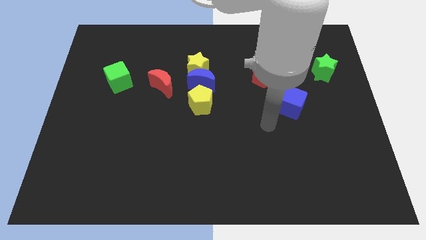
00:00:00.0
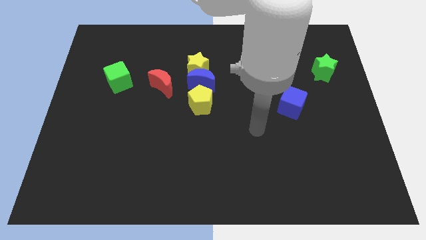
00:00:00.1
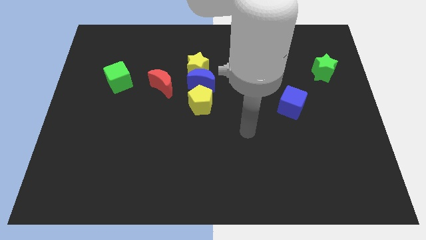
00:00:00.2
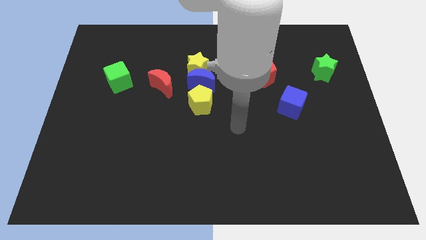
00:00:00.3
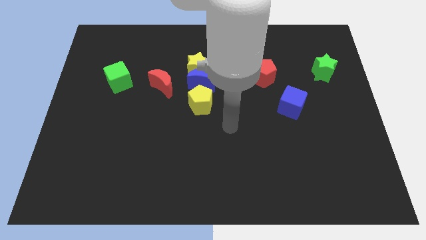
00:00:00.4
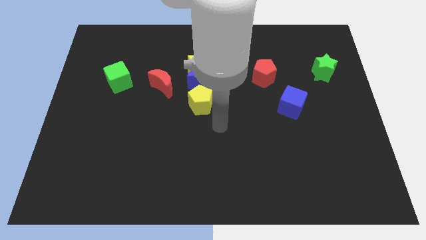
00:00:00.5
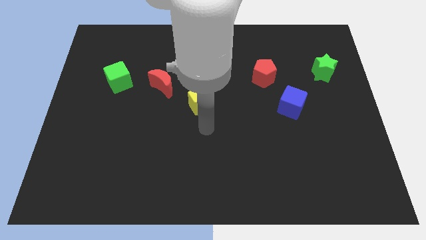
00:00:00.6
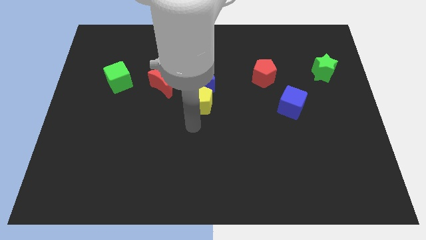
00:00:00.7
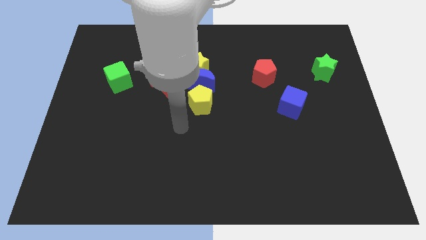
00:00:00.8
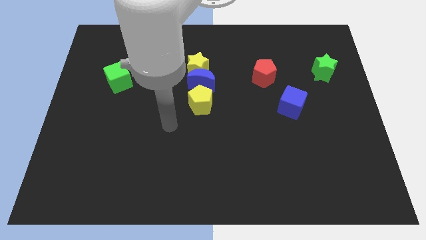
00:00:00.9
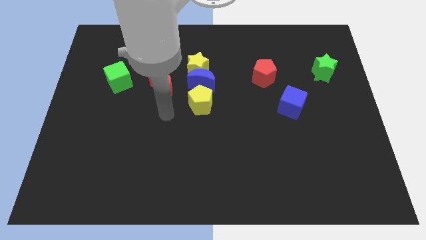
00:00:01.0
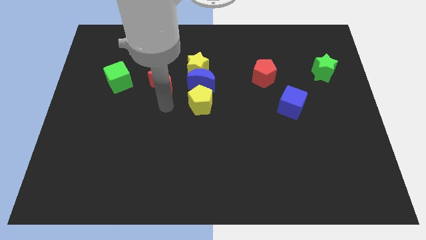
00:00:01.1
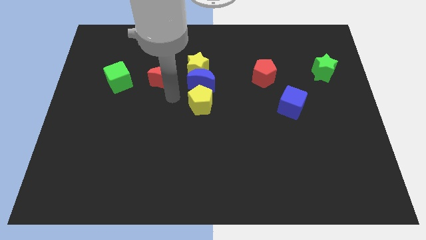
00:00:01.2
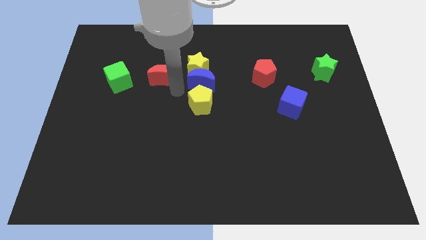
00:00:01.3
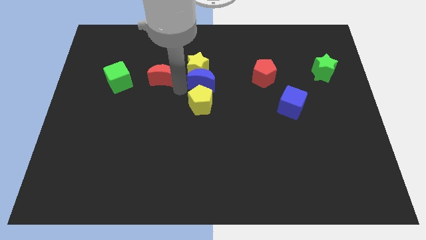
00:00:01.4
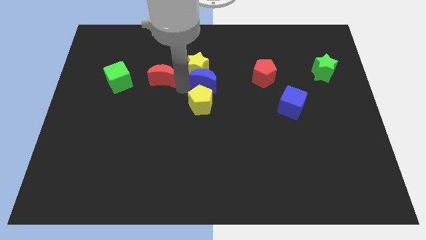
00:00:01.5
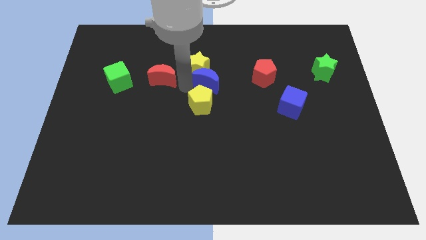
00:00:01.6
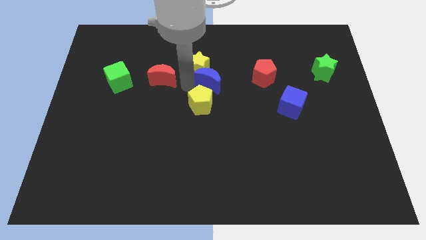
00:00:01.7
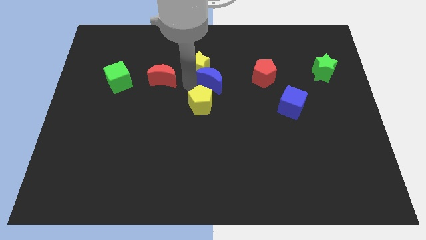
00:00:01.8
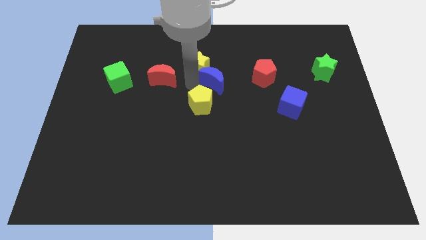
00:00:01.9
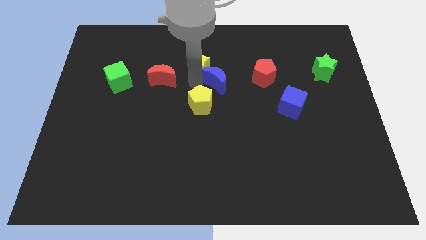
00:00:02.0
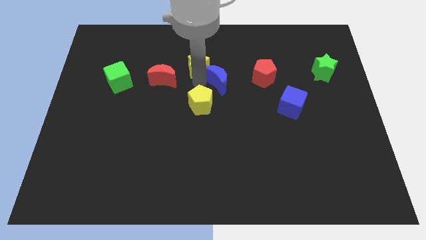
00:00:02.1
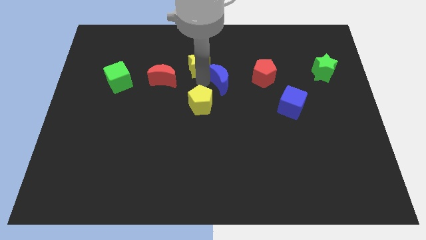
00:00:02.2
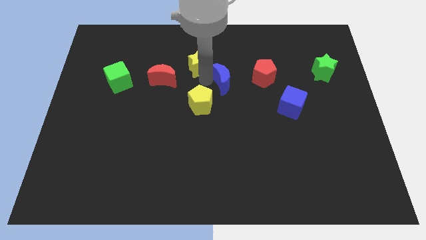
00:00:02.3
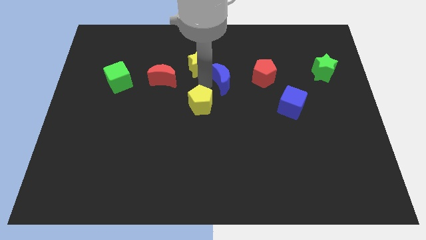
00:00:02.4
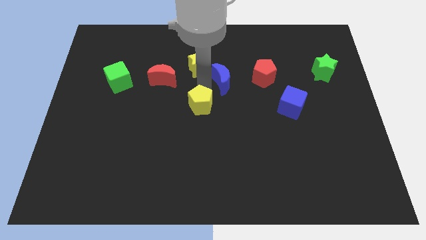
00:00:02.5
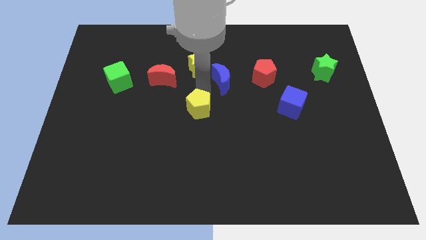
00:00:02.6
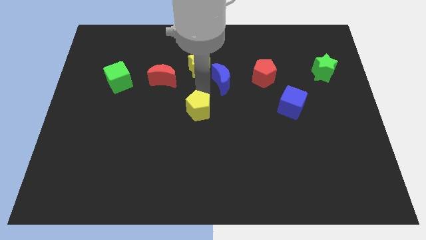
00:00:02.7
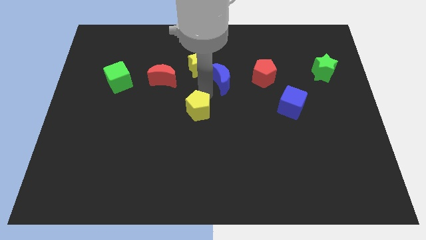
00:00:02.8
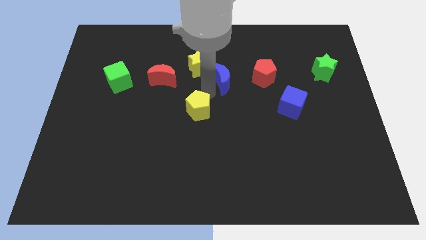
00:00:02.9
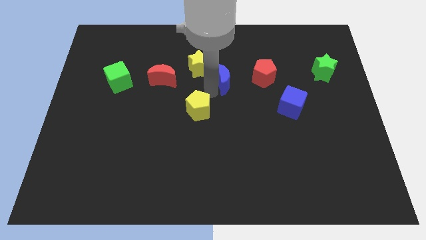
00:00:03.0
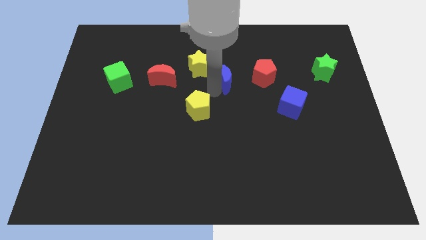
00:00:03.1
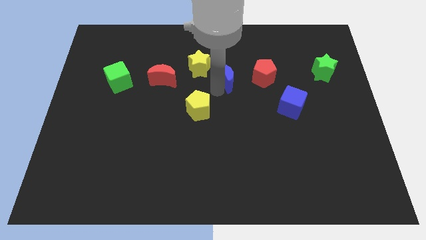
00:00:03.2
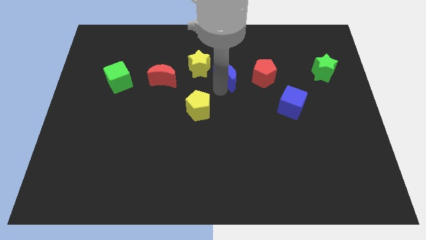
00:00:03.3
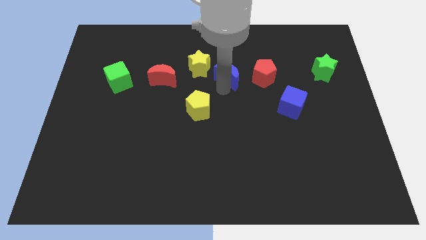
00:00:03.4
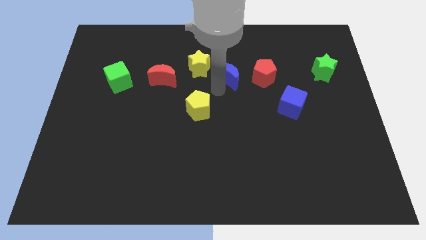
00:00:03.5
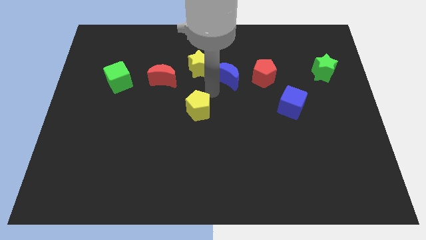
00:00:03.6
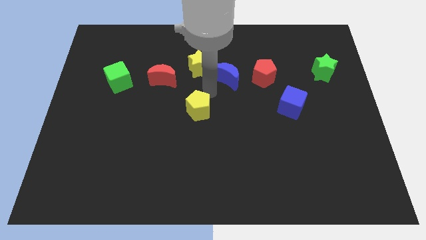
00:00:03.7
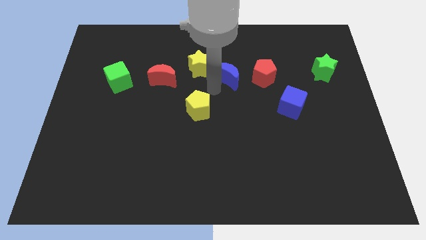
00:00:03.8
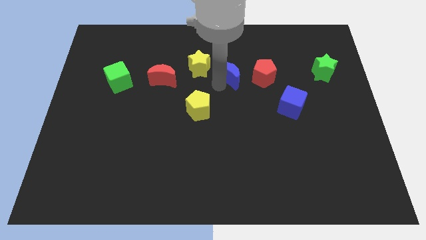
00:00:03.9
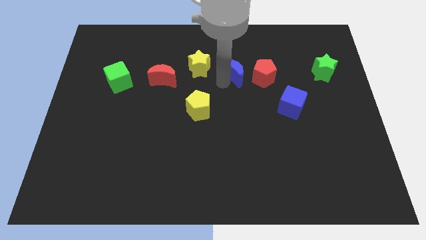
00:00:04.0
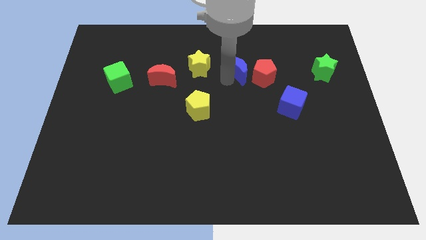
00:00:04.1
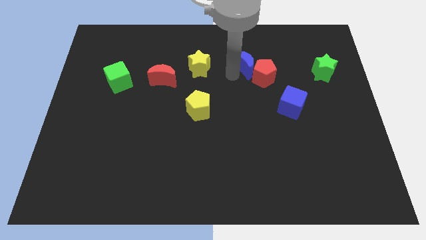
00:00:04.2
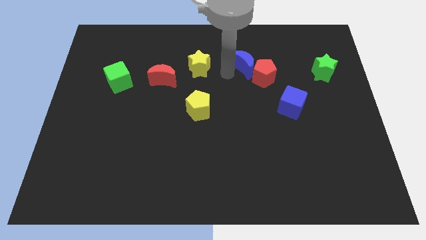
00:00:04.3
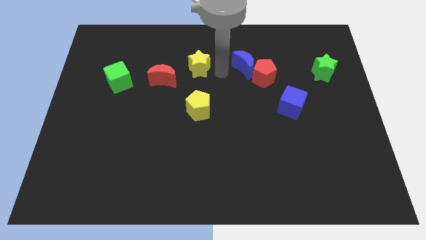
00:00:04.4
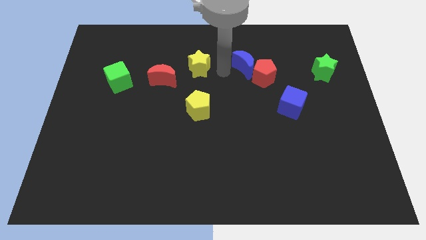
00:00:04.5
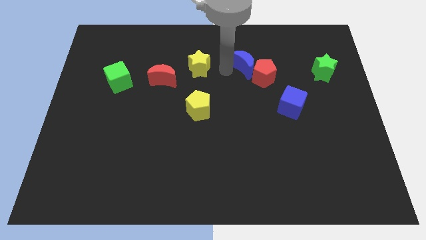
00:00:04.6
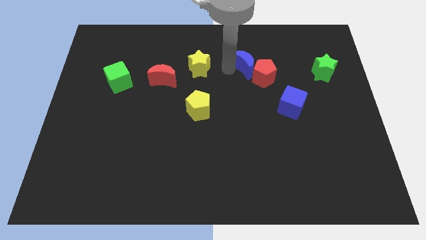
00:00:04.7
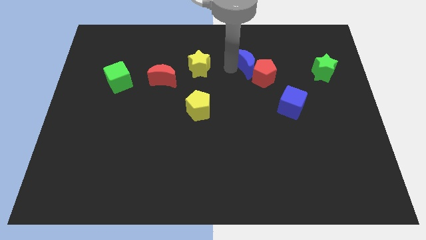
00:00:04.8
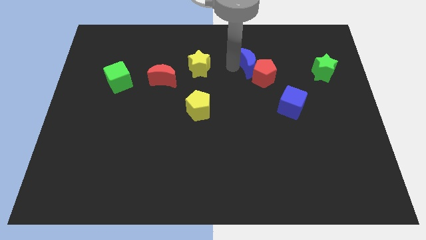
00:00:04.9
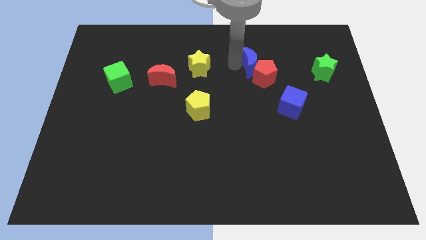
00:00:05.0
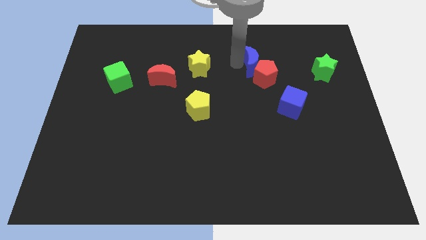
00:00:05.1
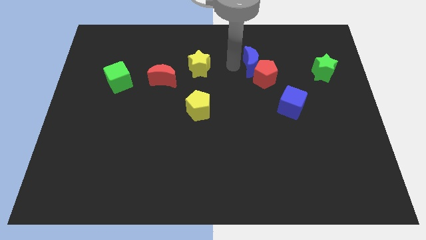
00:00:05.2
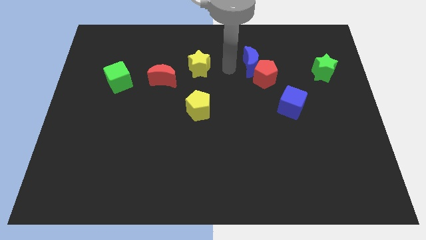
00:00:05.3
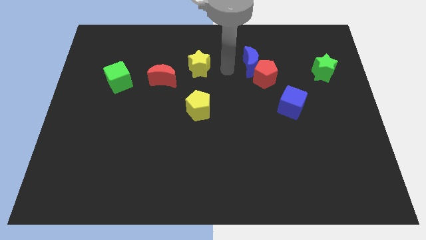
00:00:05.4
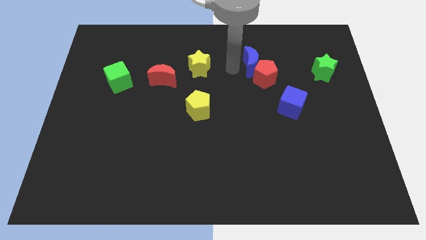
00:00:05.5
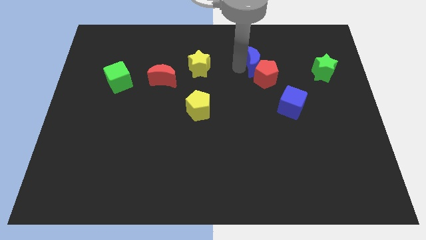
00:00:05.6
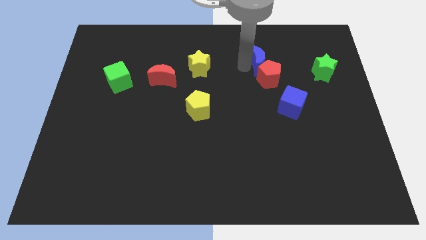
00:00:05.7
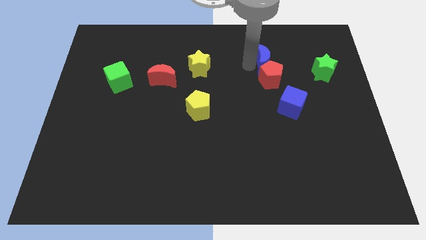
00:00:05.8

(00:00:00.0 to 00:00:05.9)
move the blue moon left of the green star

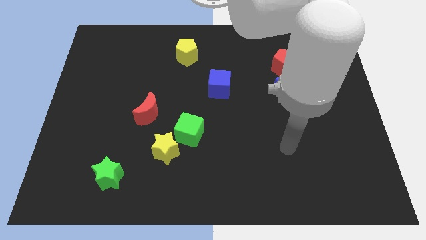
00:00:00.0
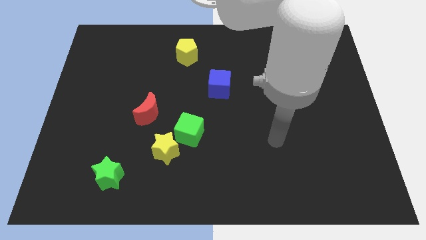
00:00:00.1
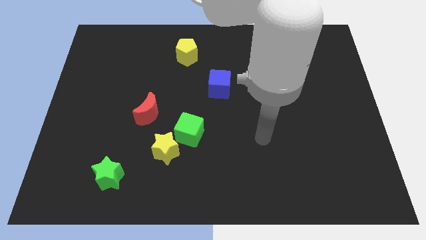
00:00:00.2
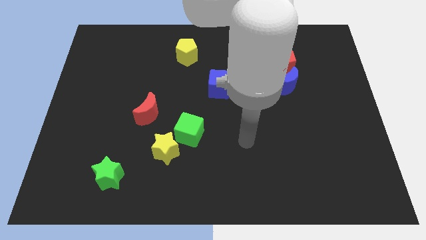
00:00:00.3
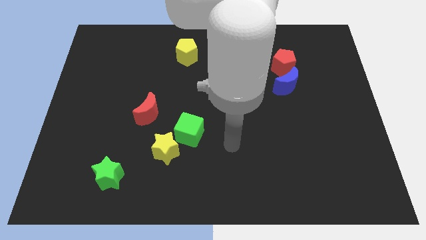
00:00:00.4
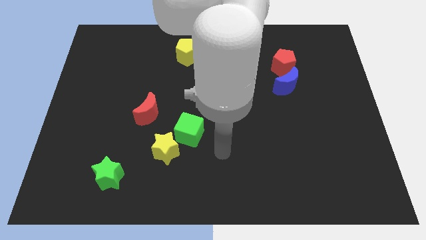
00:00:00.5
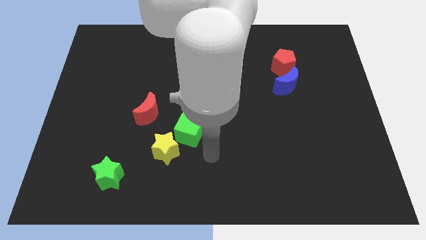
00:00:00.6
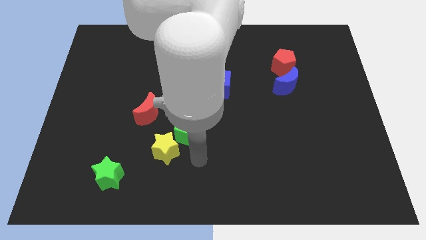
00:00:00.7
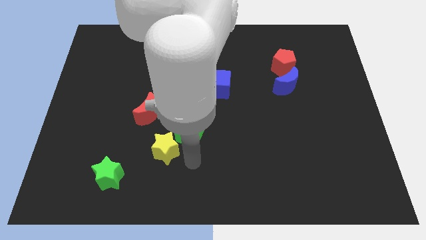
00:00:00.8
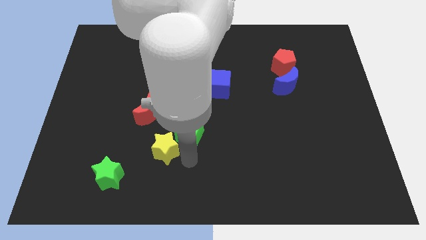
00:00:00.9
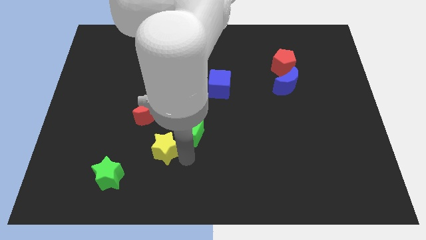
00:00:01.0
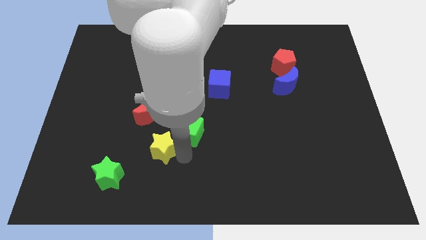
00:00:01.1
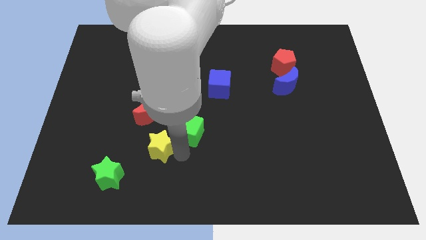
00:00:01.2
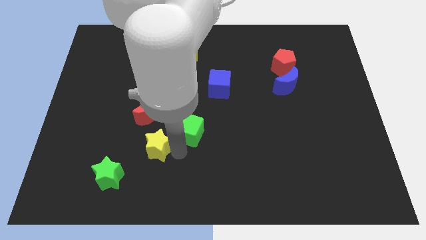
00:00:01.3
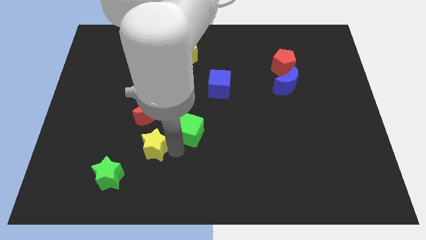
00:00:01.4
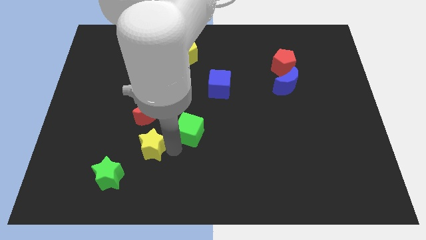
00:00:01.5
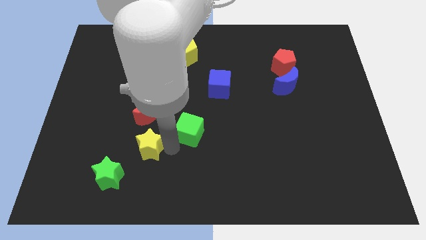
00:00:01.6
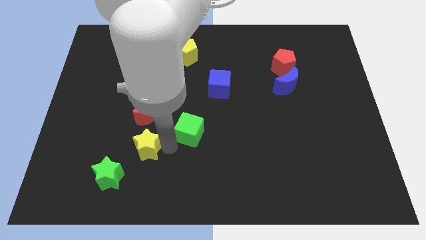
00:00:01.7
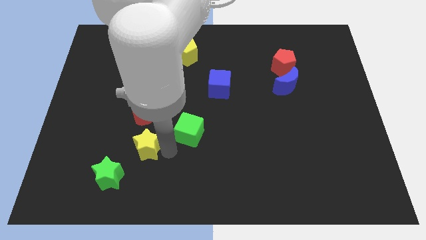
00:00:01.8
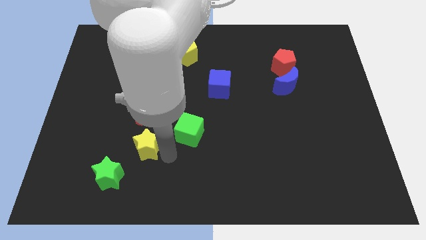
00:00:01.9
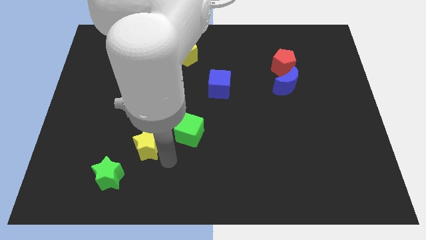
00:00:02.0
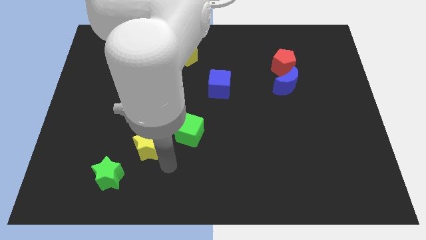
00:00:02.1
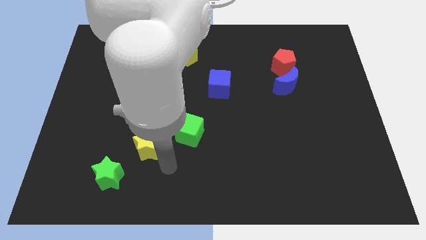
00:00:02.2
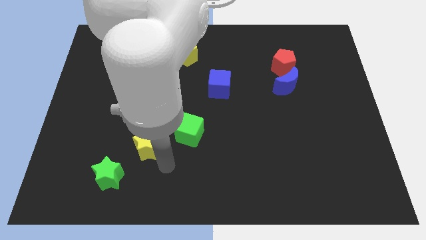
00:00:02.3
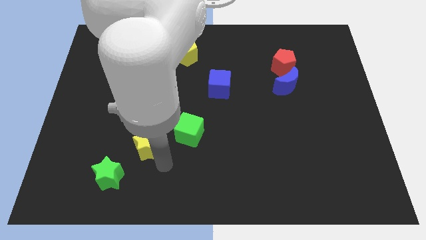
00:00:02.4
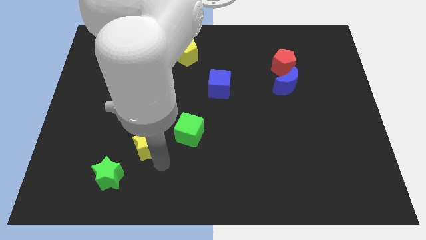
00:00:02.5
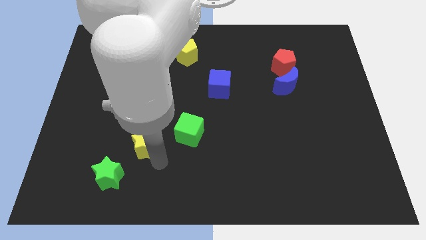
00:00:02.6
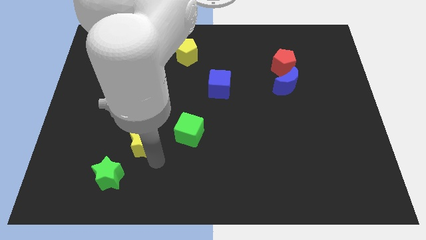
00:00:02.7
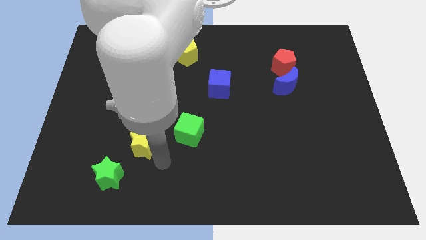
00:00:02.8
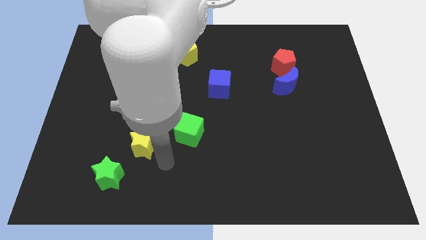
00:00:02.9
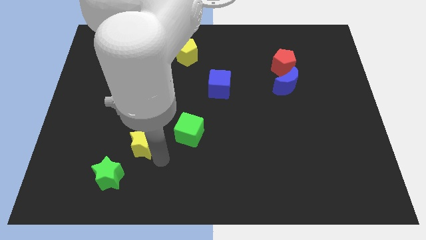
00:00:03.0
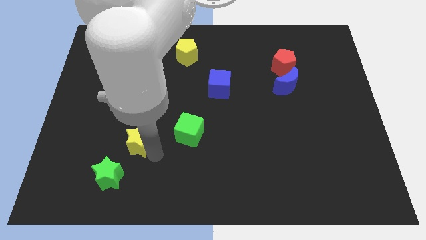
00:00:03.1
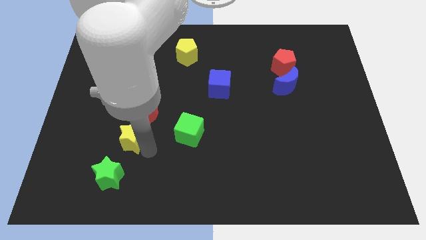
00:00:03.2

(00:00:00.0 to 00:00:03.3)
move the yellow star to the bottom left of the red moon
